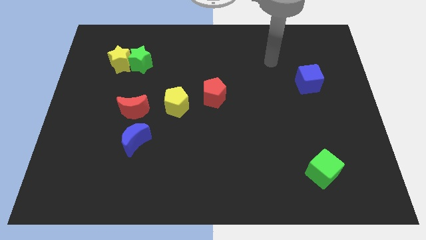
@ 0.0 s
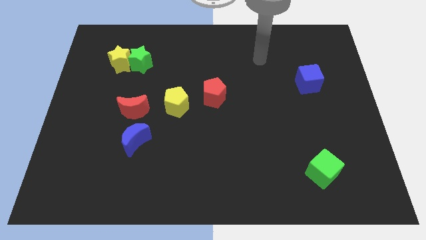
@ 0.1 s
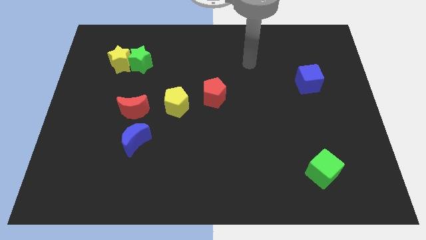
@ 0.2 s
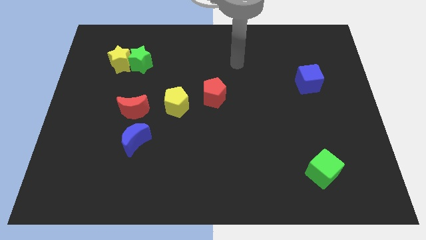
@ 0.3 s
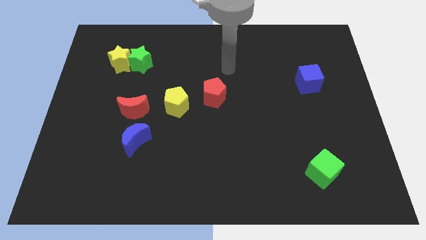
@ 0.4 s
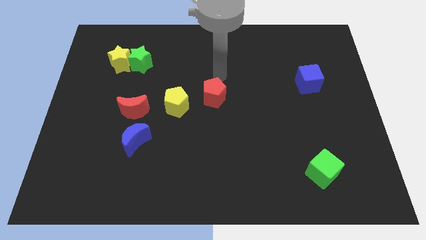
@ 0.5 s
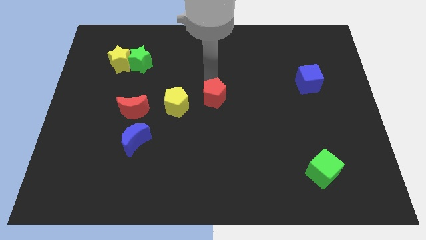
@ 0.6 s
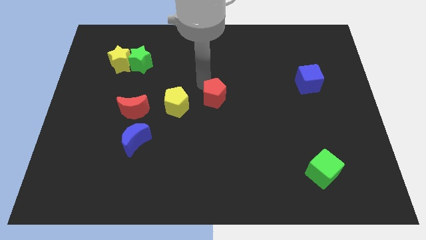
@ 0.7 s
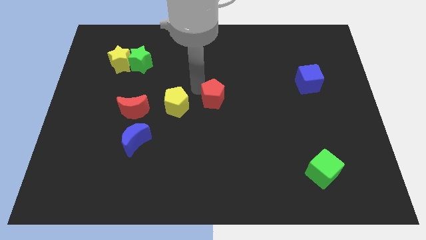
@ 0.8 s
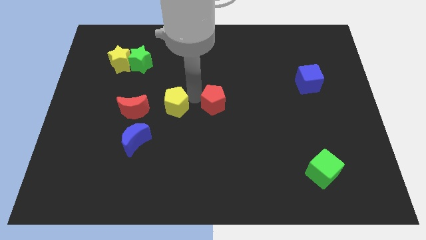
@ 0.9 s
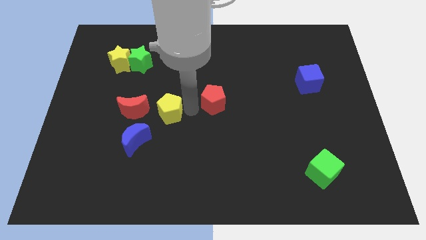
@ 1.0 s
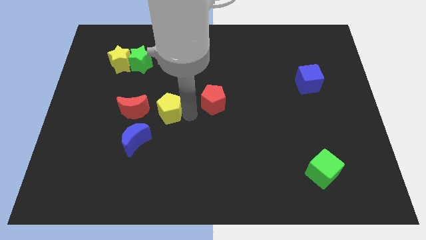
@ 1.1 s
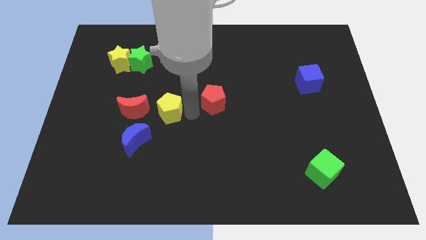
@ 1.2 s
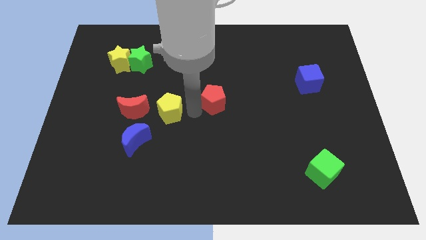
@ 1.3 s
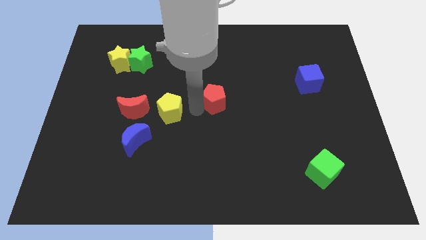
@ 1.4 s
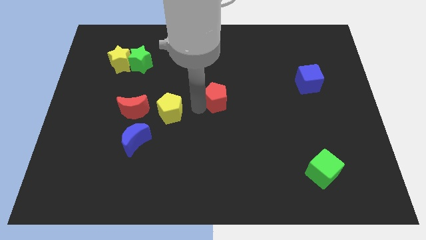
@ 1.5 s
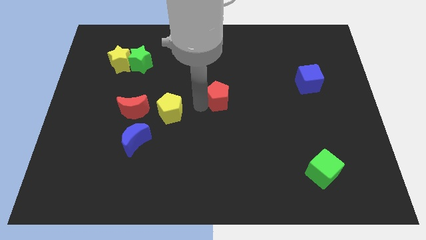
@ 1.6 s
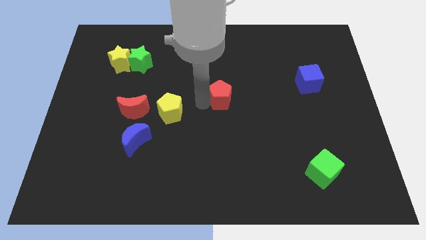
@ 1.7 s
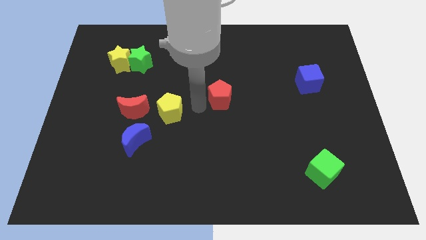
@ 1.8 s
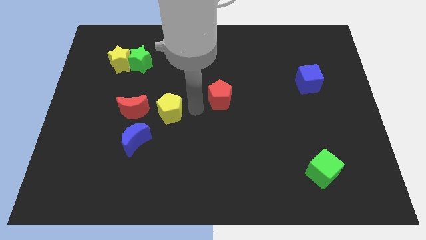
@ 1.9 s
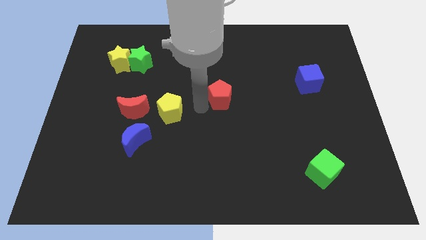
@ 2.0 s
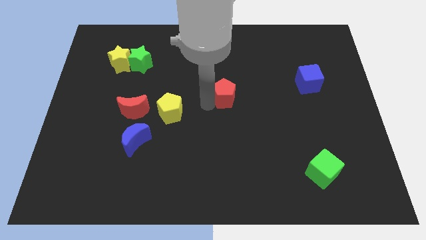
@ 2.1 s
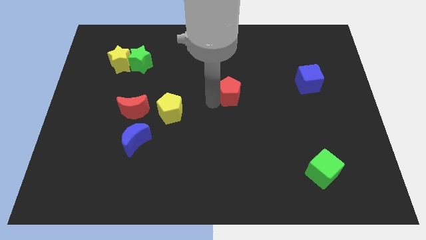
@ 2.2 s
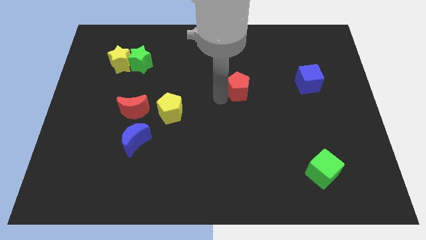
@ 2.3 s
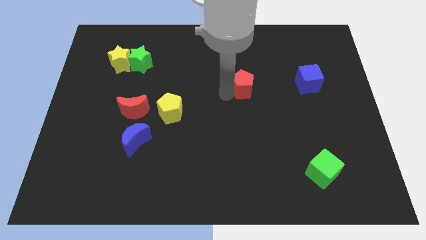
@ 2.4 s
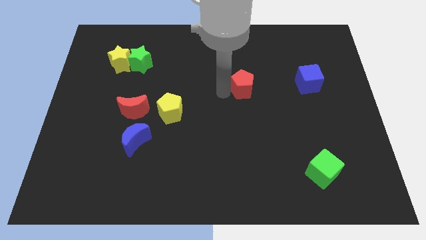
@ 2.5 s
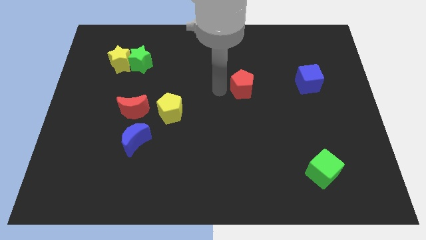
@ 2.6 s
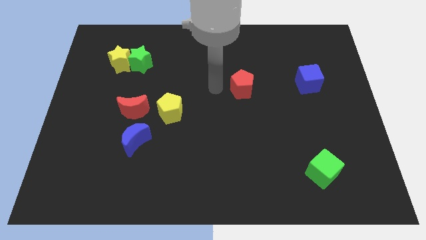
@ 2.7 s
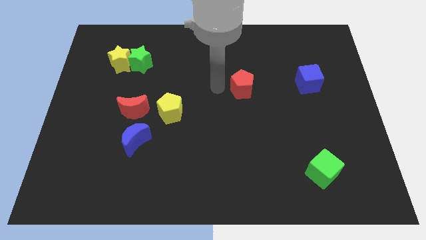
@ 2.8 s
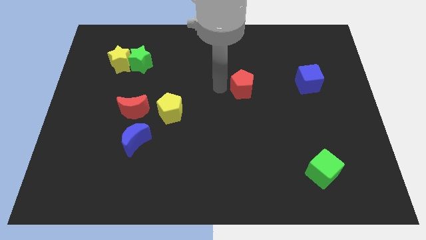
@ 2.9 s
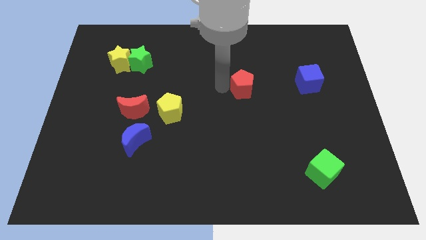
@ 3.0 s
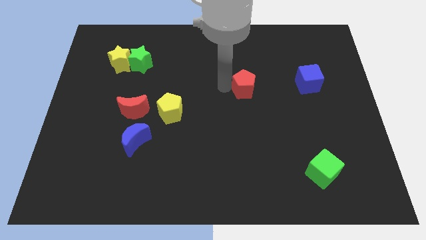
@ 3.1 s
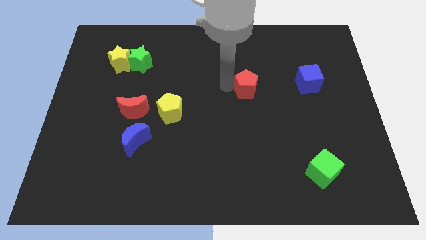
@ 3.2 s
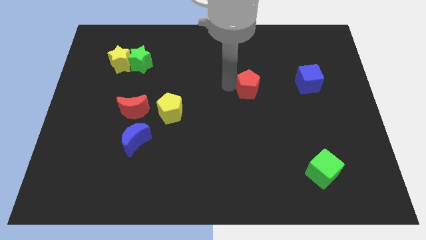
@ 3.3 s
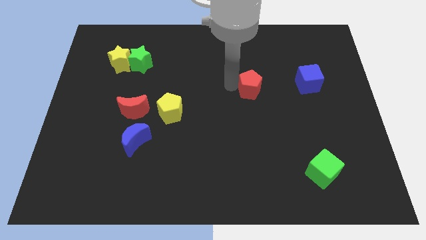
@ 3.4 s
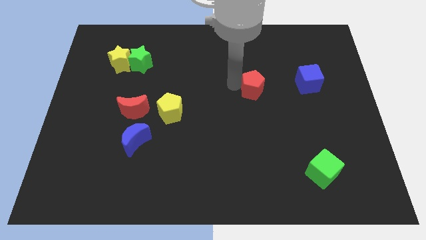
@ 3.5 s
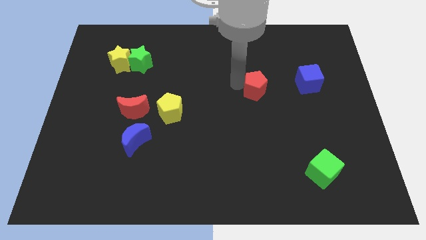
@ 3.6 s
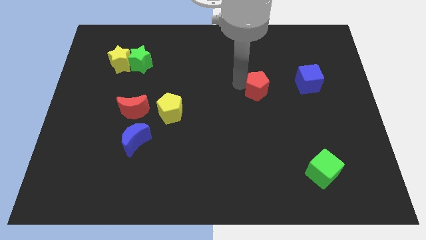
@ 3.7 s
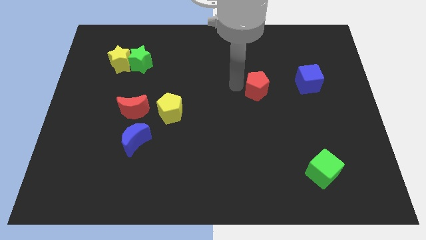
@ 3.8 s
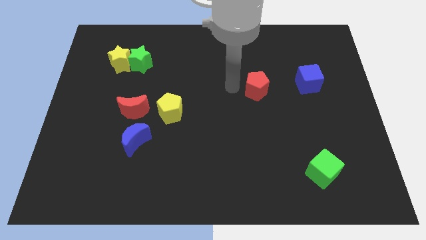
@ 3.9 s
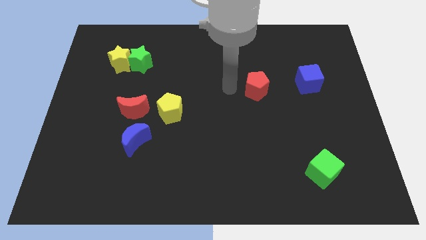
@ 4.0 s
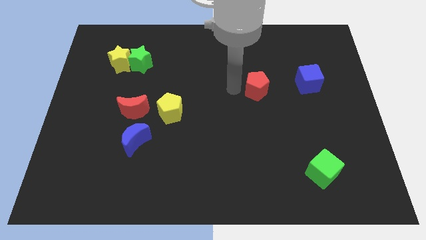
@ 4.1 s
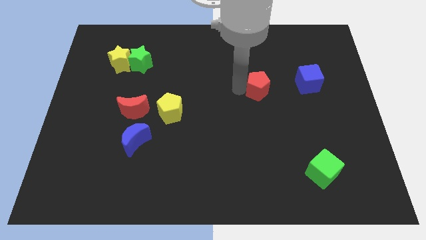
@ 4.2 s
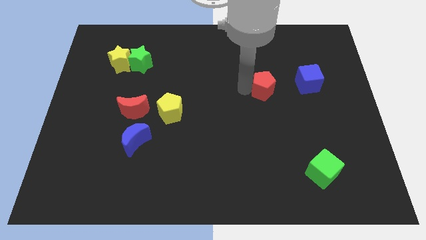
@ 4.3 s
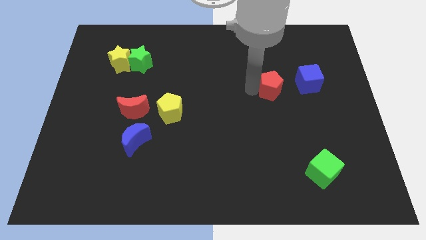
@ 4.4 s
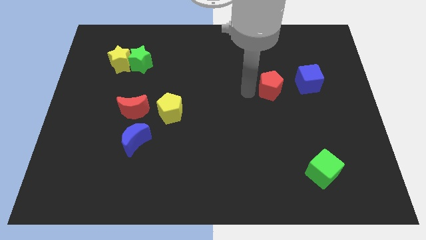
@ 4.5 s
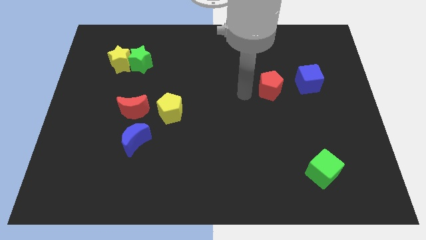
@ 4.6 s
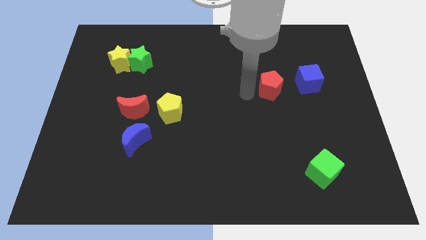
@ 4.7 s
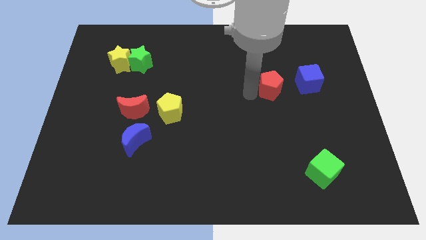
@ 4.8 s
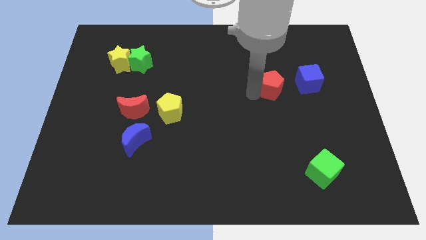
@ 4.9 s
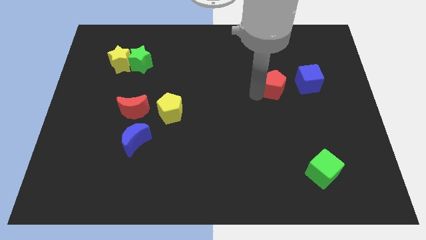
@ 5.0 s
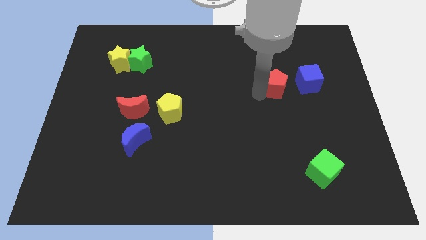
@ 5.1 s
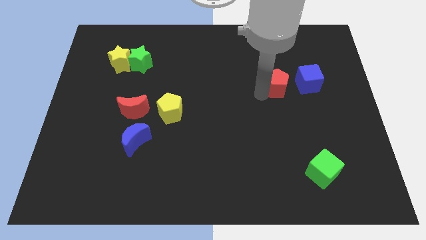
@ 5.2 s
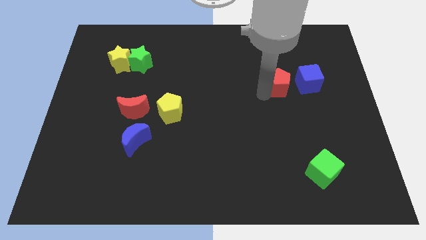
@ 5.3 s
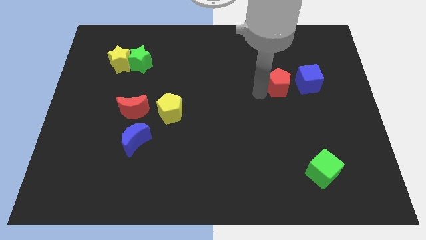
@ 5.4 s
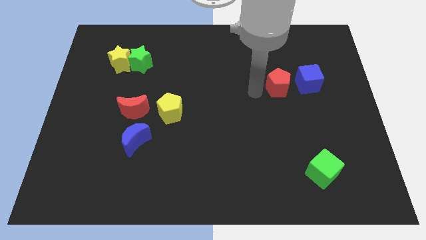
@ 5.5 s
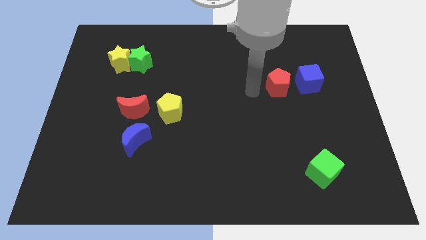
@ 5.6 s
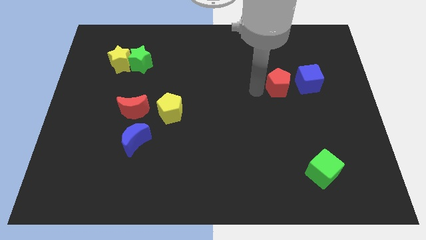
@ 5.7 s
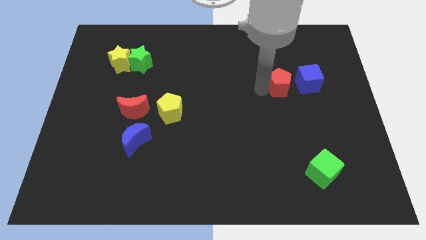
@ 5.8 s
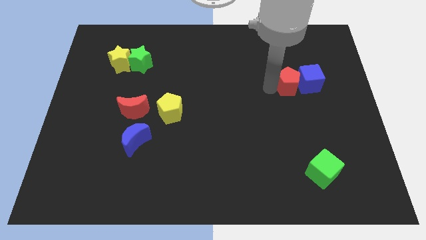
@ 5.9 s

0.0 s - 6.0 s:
put the red pentagon to the blue cube
